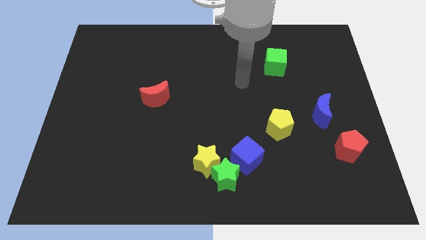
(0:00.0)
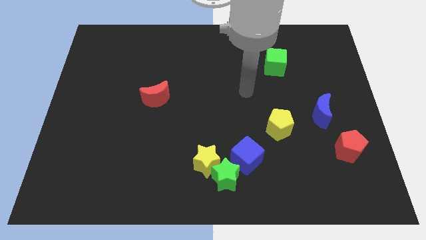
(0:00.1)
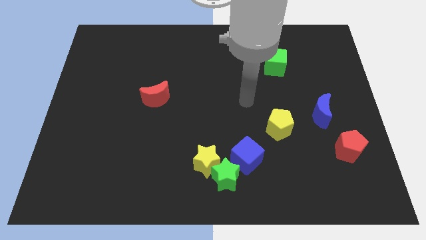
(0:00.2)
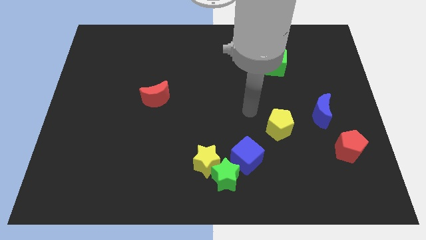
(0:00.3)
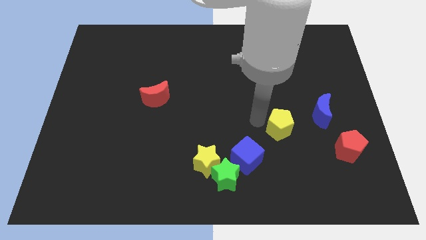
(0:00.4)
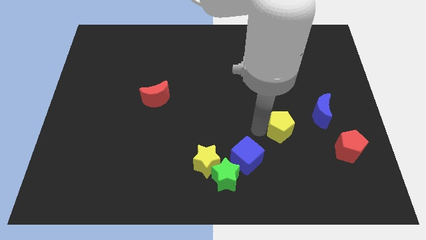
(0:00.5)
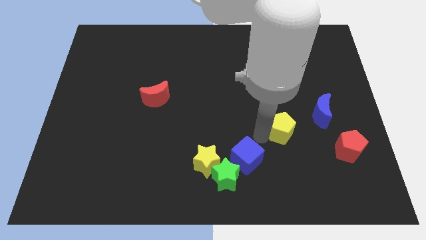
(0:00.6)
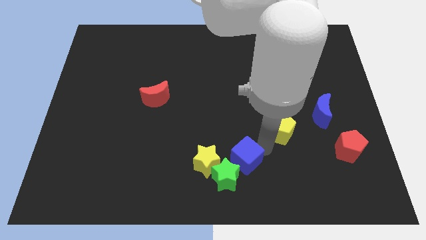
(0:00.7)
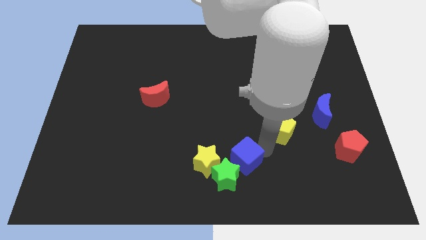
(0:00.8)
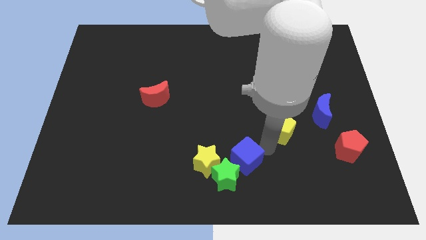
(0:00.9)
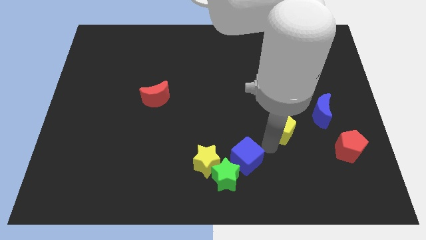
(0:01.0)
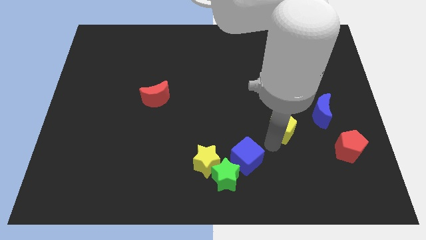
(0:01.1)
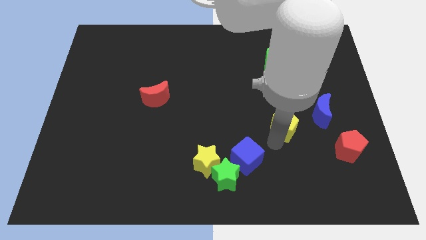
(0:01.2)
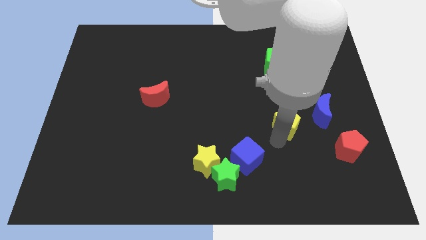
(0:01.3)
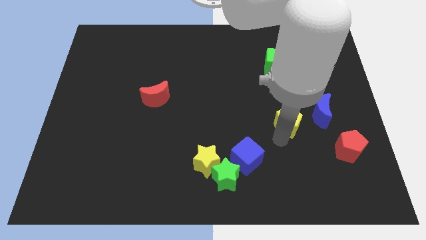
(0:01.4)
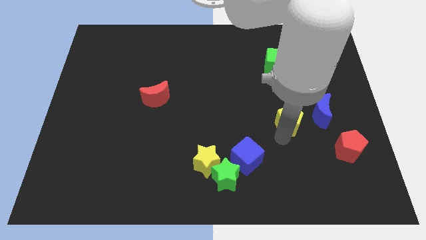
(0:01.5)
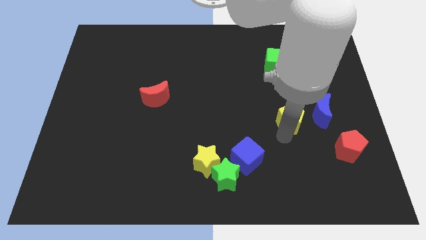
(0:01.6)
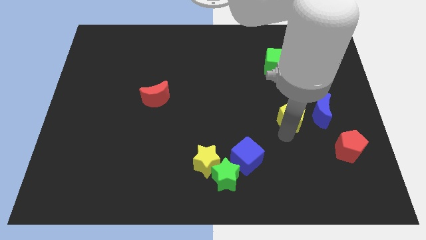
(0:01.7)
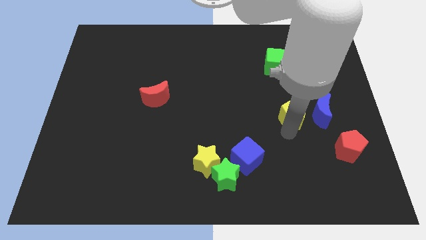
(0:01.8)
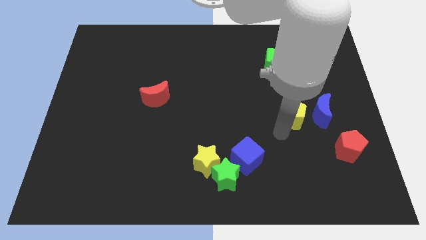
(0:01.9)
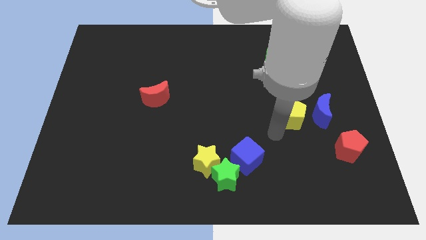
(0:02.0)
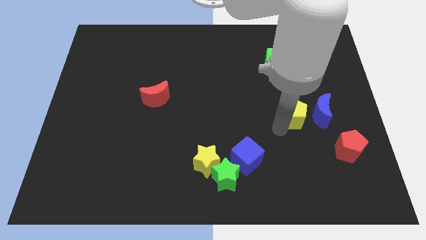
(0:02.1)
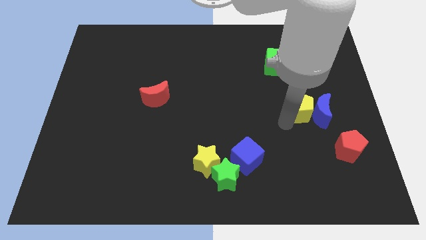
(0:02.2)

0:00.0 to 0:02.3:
push the yellow pentagon a little bit up and then to the right

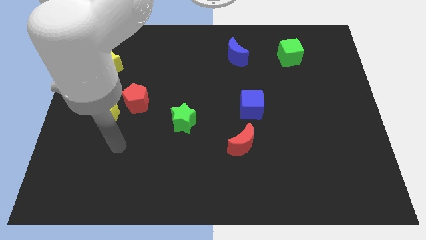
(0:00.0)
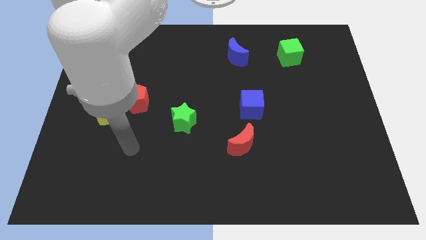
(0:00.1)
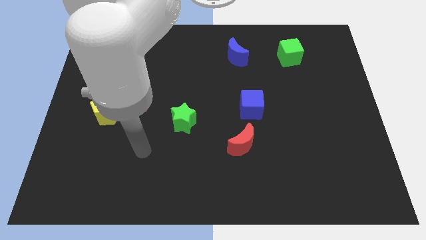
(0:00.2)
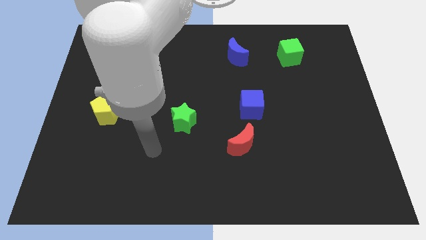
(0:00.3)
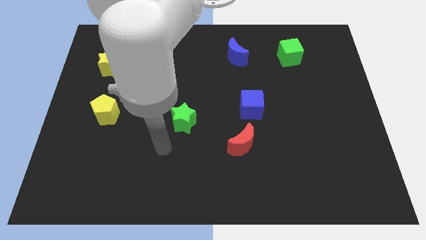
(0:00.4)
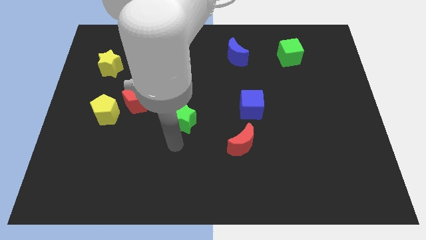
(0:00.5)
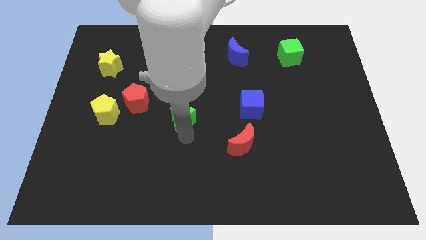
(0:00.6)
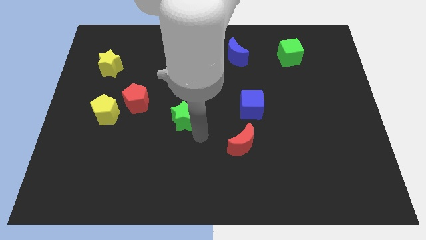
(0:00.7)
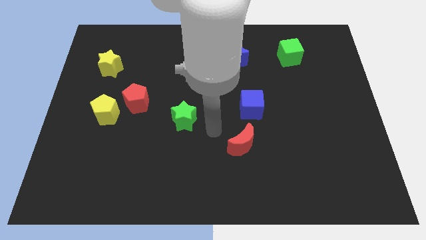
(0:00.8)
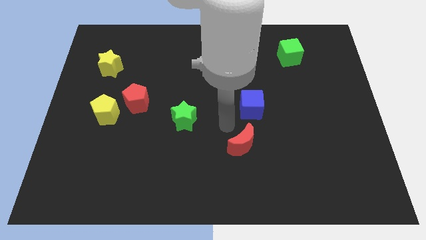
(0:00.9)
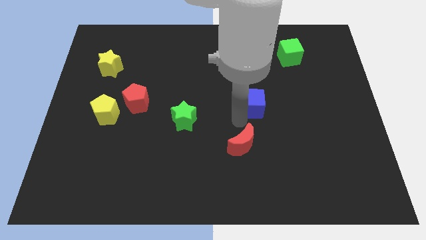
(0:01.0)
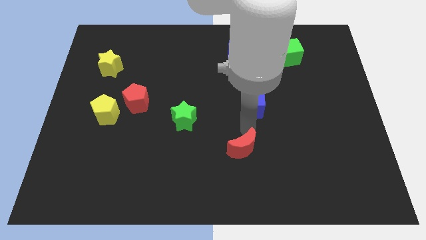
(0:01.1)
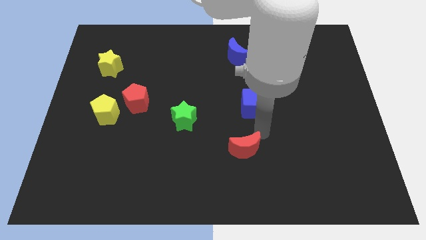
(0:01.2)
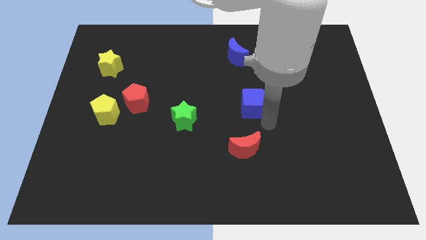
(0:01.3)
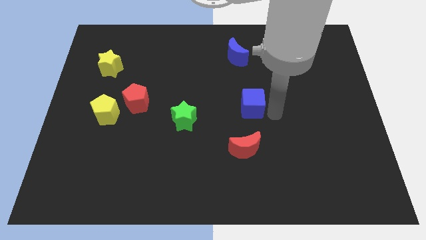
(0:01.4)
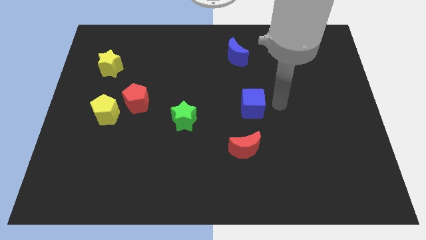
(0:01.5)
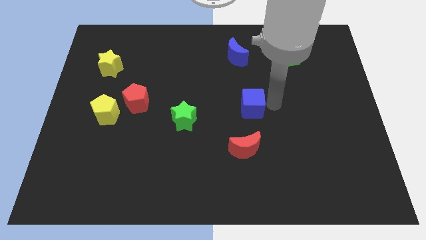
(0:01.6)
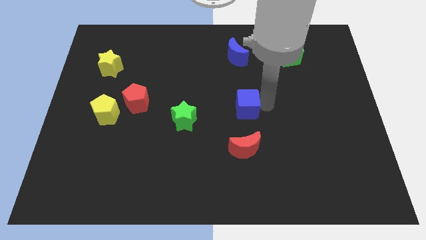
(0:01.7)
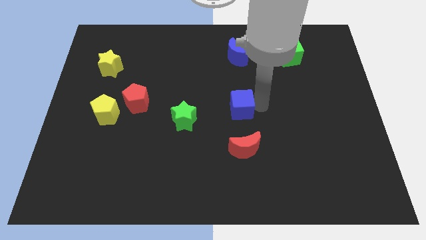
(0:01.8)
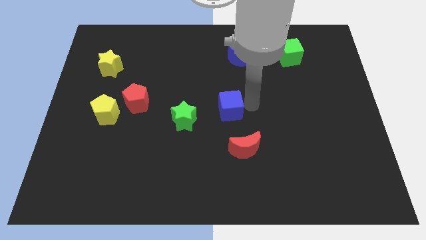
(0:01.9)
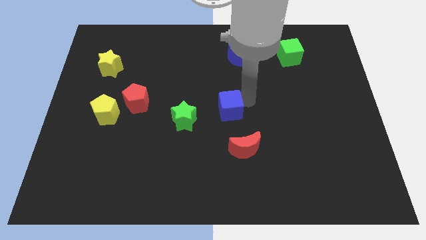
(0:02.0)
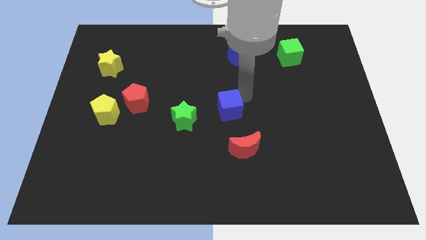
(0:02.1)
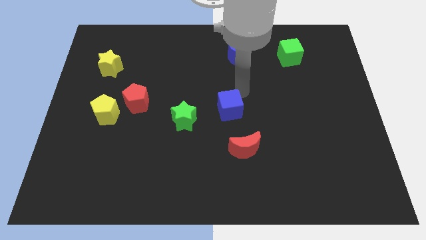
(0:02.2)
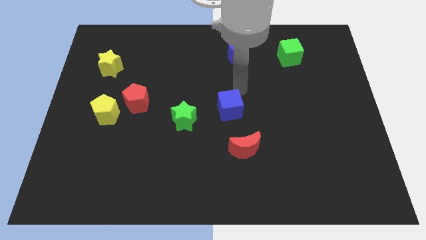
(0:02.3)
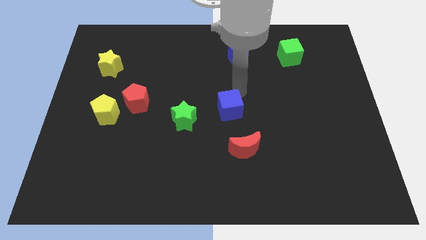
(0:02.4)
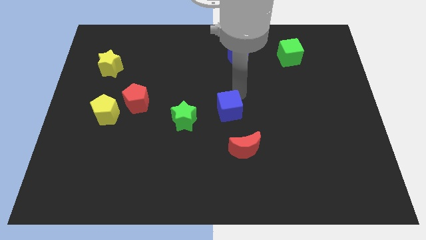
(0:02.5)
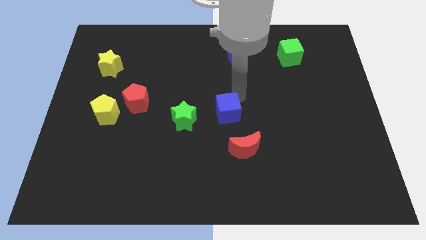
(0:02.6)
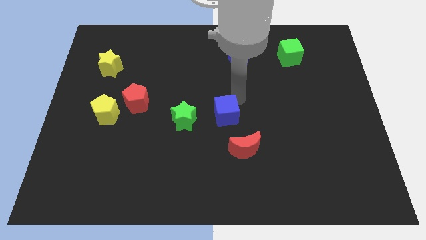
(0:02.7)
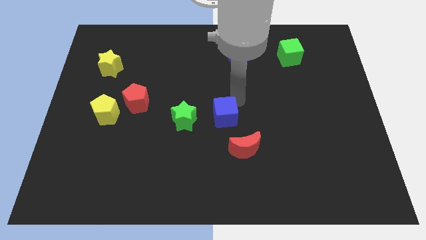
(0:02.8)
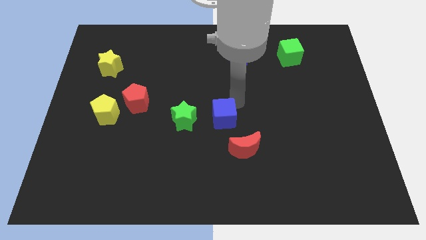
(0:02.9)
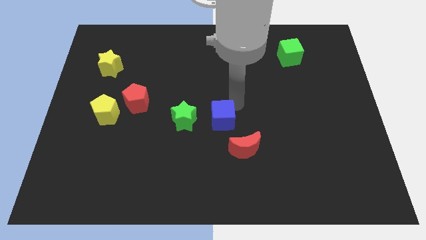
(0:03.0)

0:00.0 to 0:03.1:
move the blue cube down and to the left somewhat

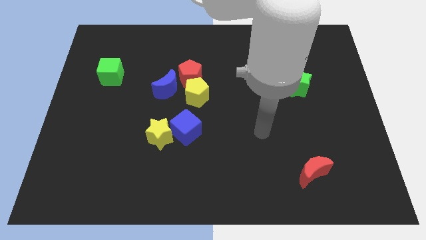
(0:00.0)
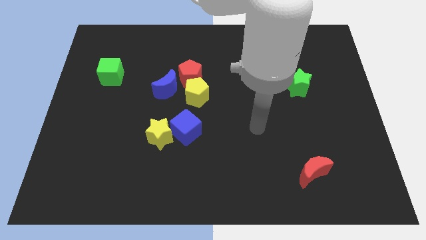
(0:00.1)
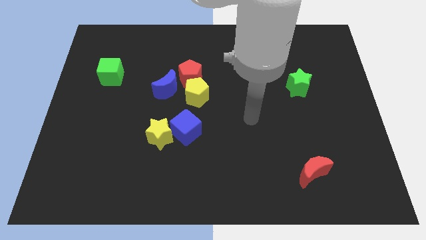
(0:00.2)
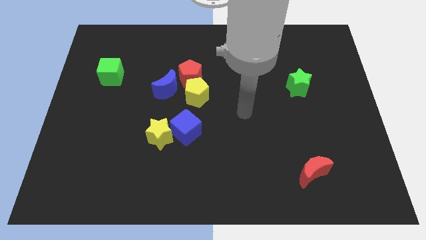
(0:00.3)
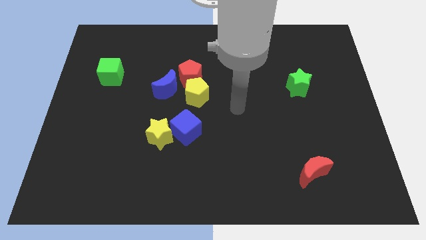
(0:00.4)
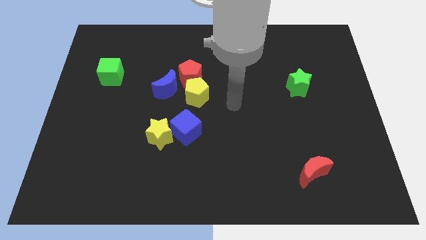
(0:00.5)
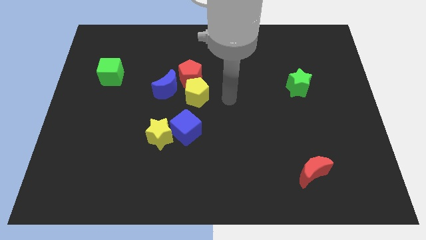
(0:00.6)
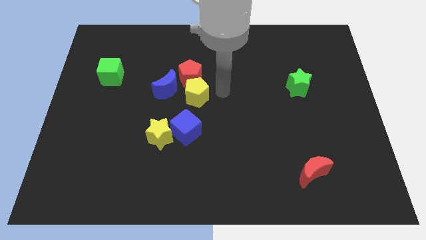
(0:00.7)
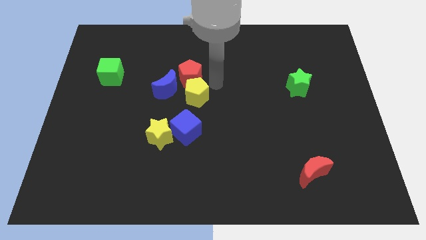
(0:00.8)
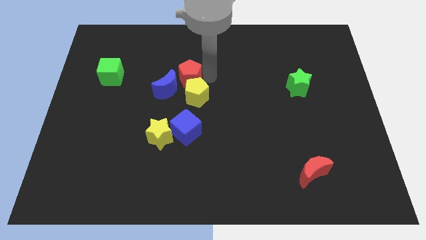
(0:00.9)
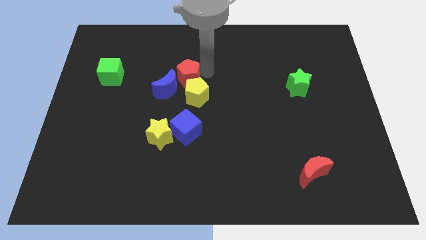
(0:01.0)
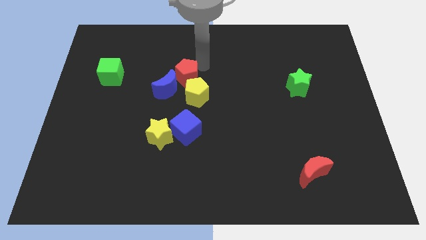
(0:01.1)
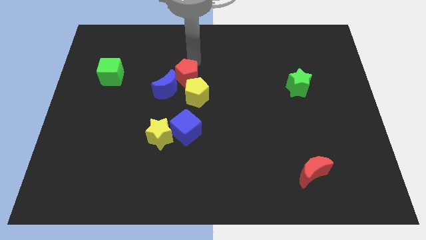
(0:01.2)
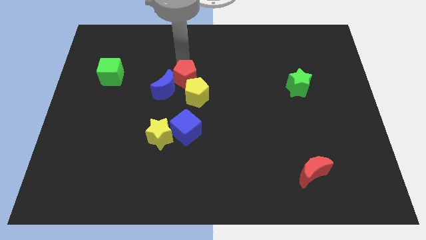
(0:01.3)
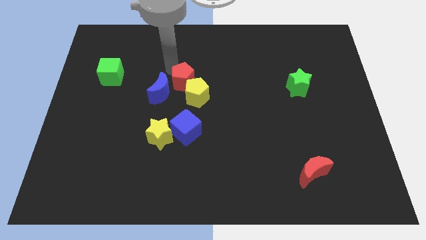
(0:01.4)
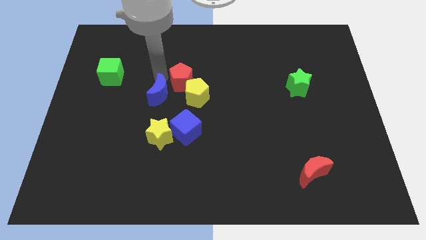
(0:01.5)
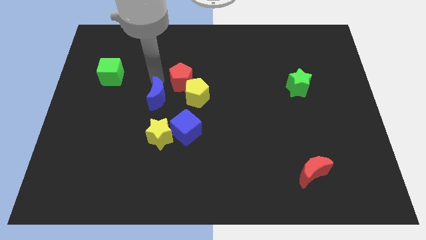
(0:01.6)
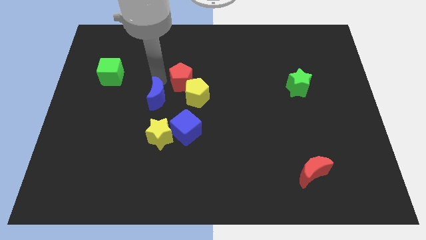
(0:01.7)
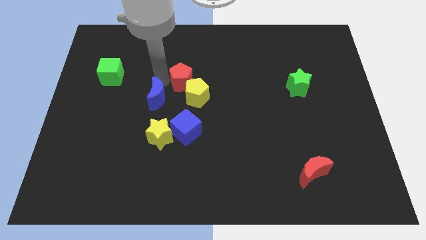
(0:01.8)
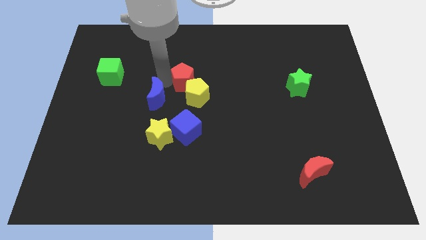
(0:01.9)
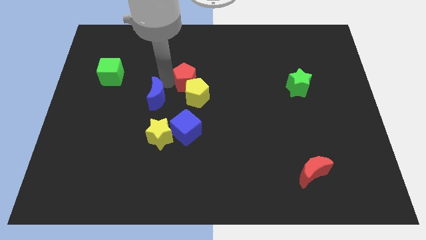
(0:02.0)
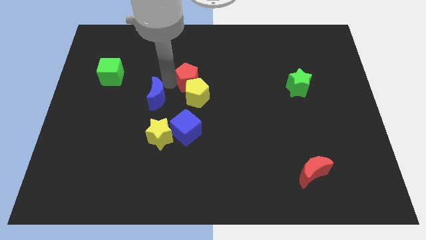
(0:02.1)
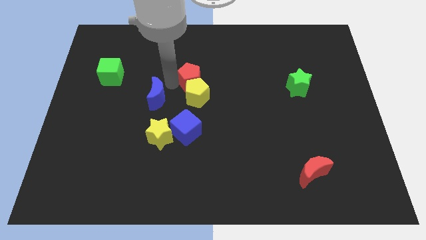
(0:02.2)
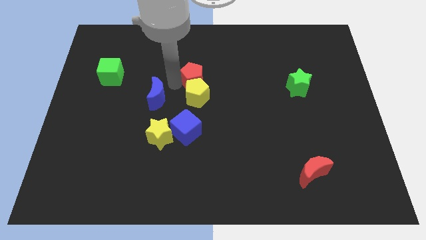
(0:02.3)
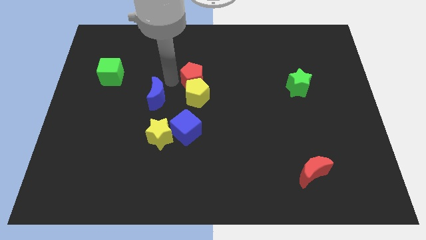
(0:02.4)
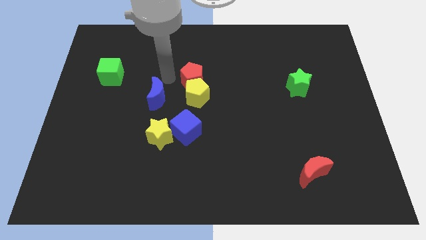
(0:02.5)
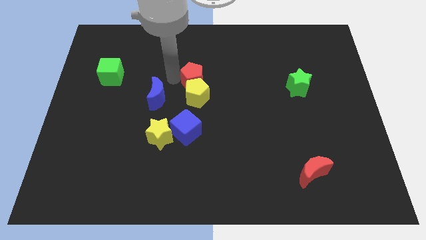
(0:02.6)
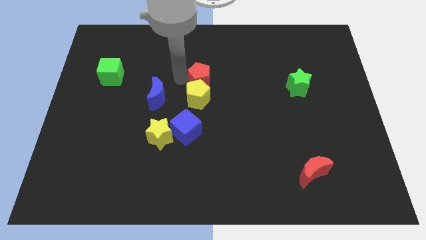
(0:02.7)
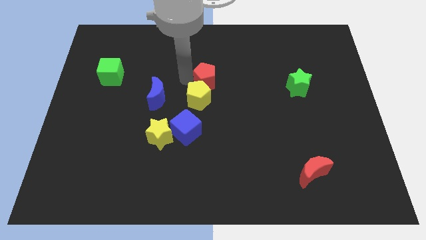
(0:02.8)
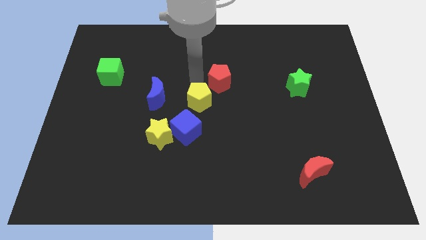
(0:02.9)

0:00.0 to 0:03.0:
push the red pentagon slightly to the right
